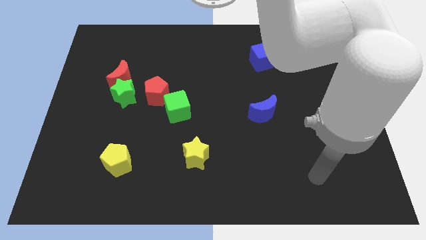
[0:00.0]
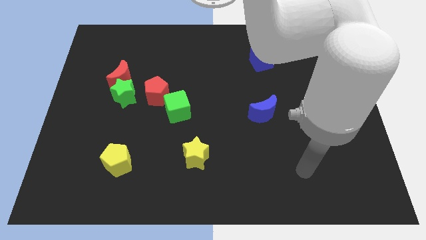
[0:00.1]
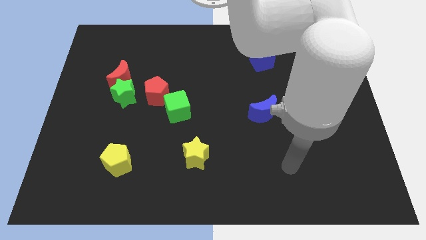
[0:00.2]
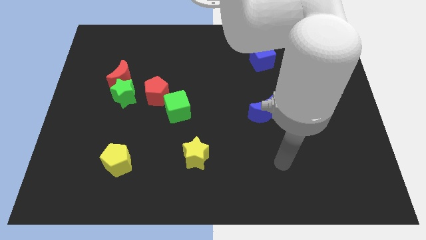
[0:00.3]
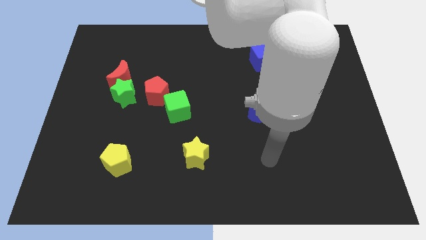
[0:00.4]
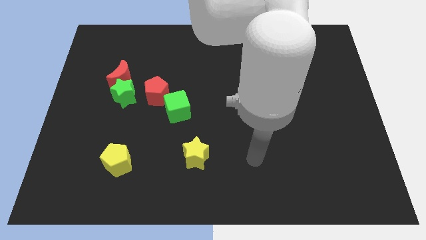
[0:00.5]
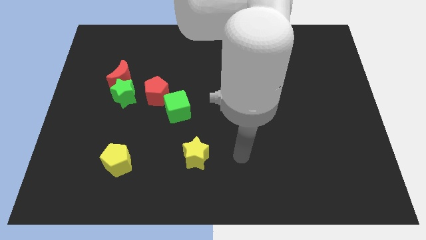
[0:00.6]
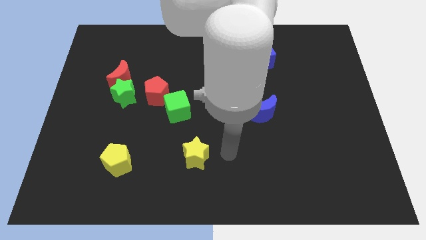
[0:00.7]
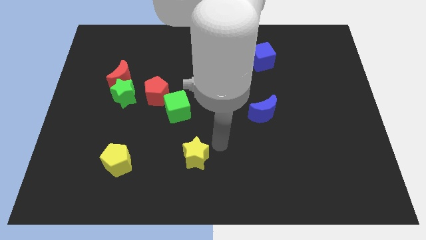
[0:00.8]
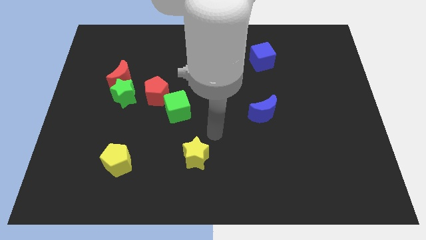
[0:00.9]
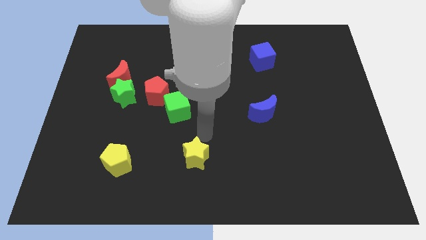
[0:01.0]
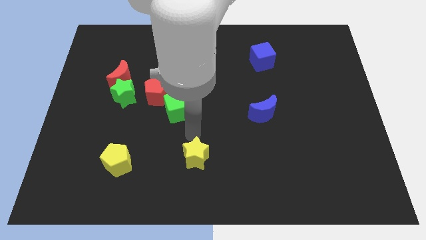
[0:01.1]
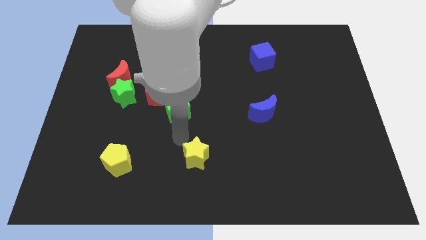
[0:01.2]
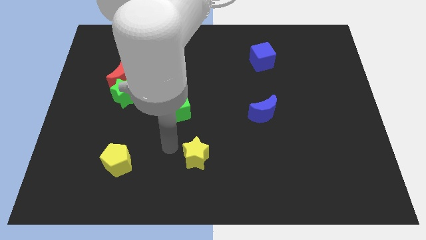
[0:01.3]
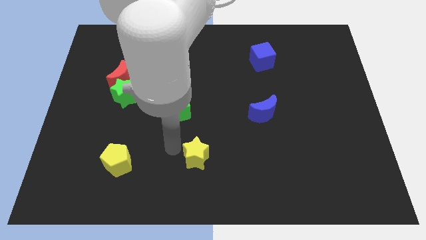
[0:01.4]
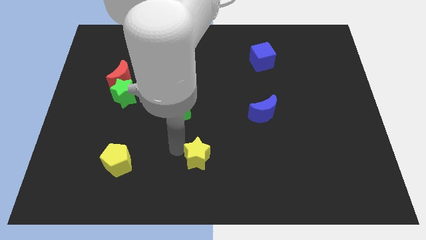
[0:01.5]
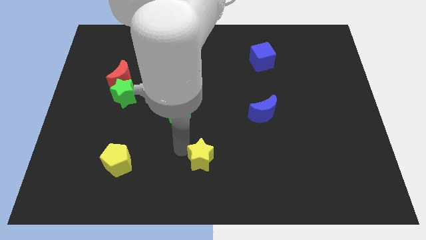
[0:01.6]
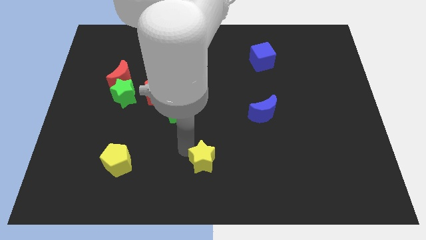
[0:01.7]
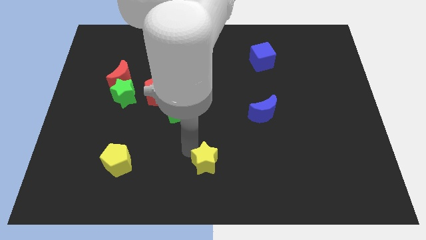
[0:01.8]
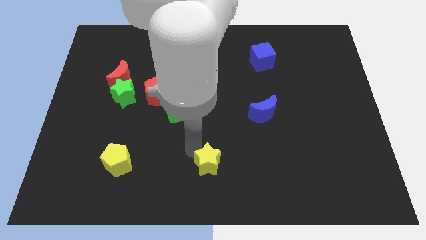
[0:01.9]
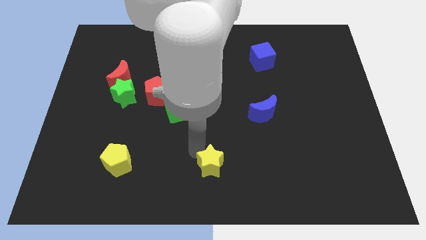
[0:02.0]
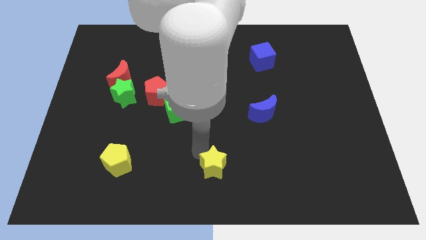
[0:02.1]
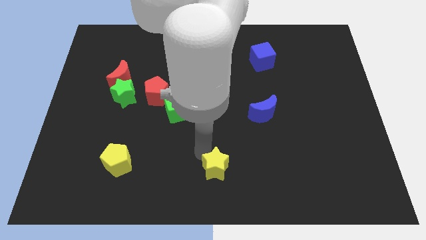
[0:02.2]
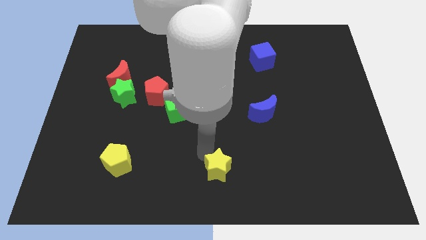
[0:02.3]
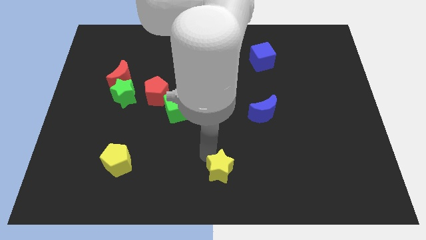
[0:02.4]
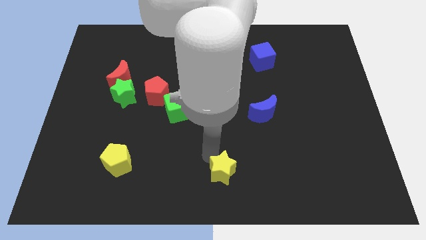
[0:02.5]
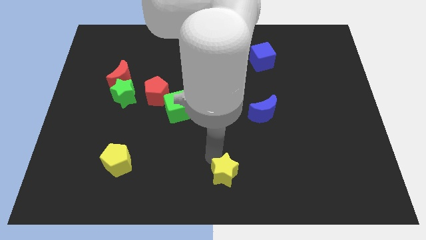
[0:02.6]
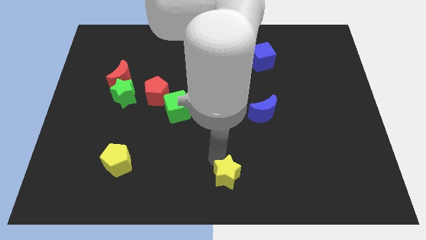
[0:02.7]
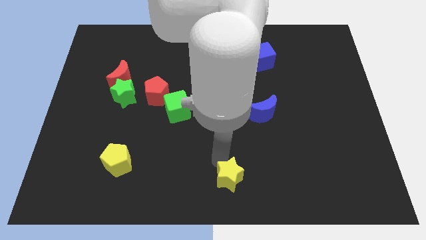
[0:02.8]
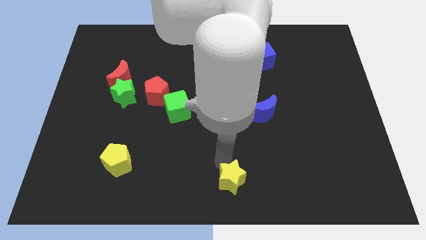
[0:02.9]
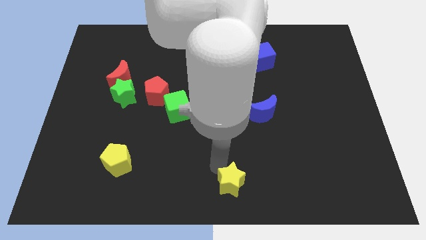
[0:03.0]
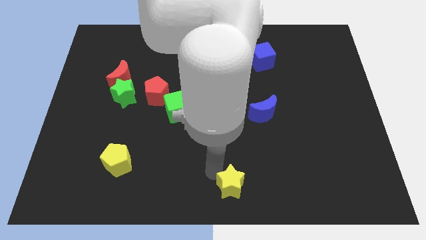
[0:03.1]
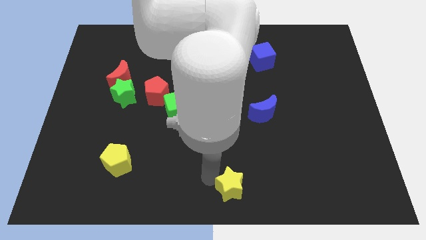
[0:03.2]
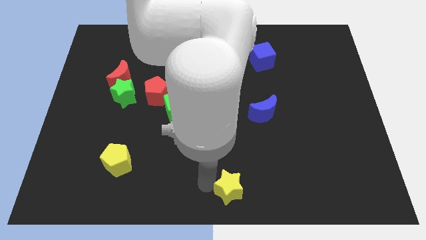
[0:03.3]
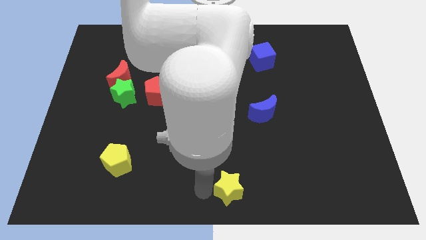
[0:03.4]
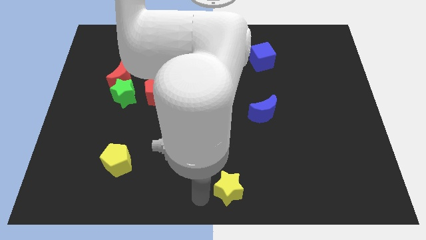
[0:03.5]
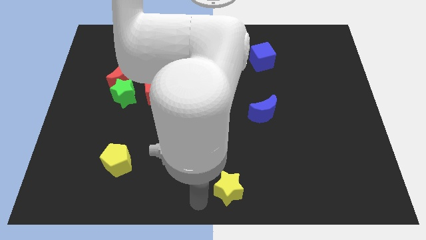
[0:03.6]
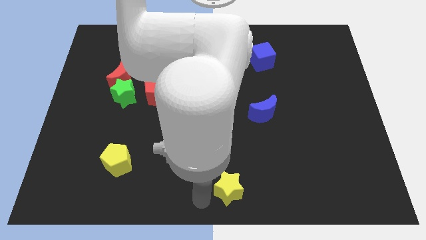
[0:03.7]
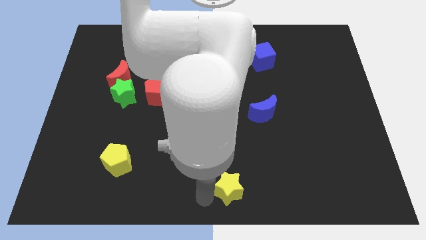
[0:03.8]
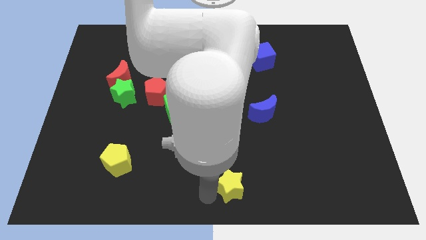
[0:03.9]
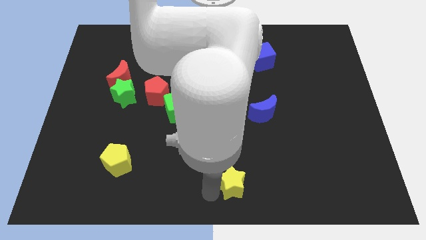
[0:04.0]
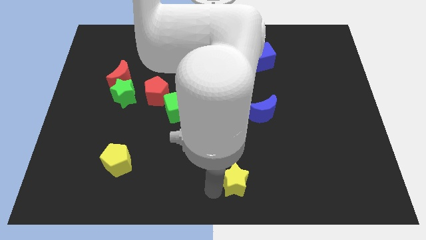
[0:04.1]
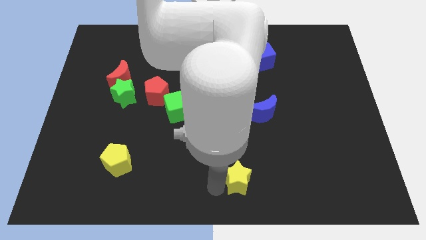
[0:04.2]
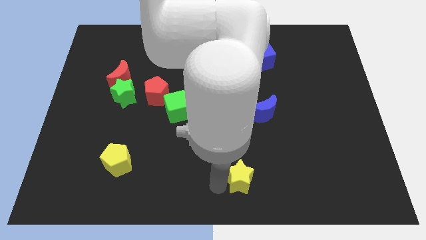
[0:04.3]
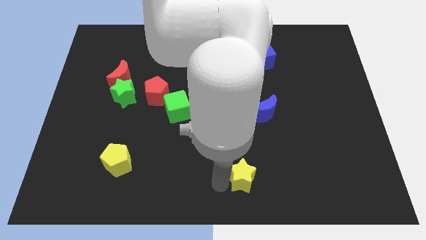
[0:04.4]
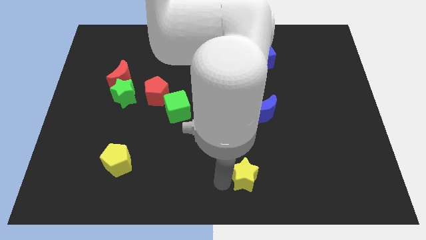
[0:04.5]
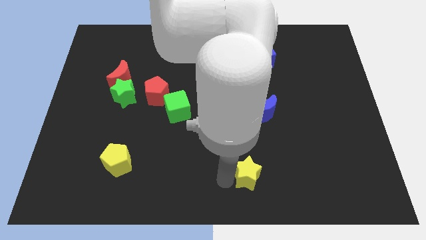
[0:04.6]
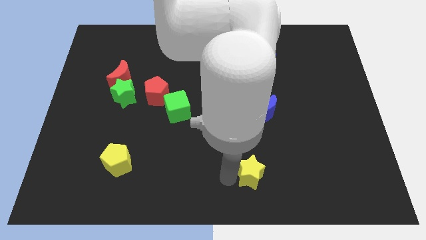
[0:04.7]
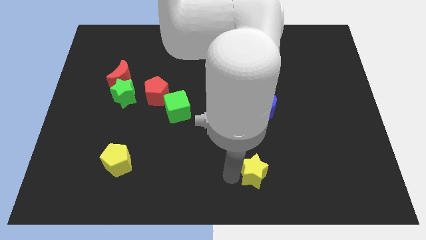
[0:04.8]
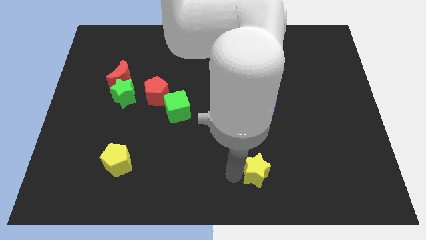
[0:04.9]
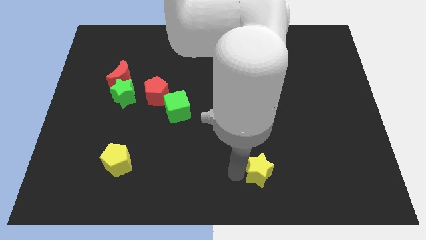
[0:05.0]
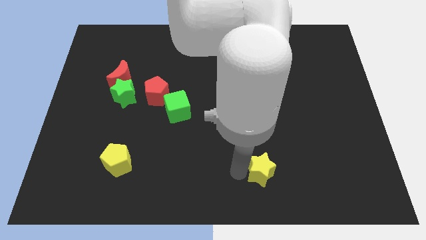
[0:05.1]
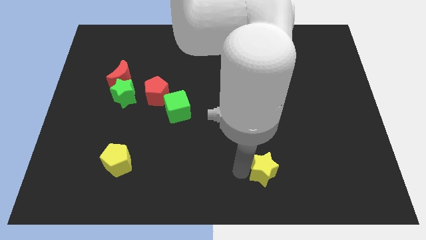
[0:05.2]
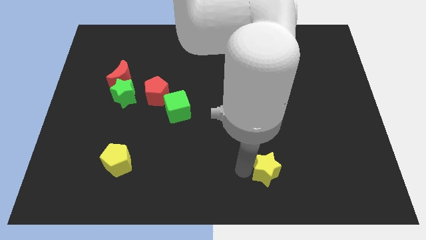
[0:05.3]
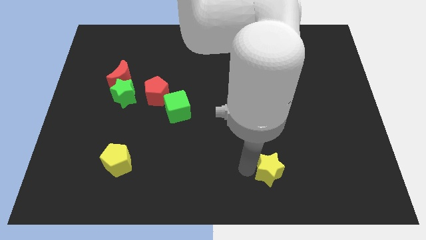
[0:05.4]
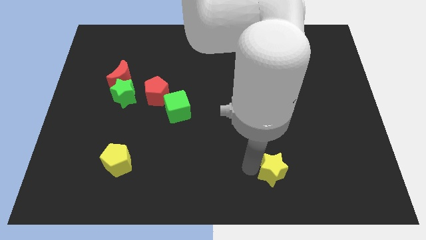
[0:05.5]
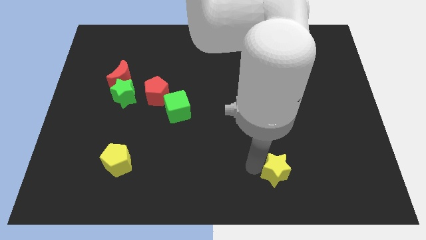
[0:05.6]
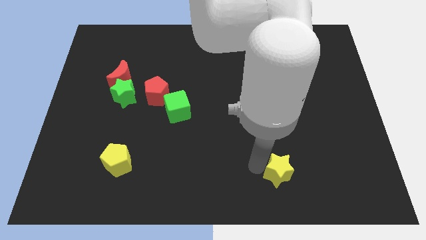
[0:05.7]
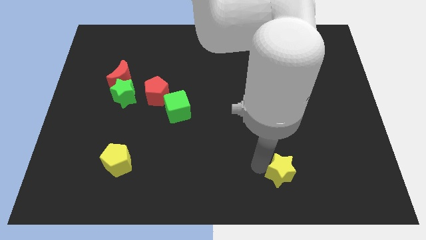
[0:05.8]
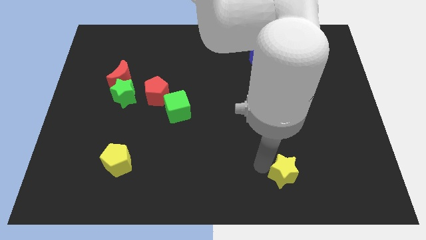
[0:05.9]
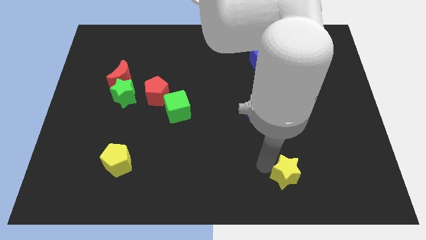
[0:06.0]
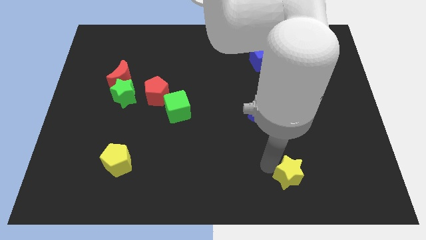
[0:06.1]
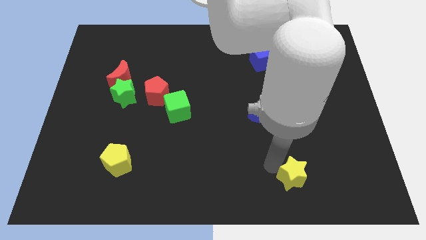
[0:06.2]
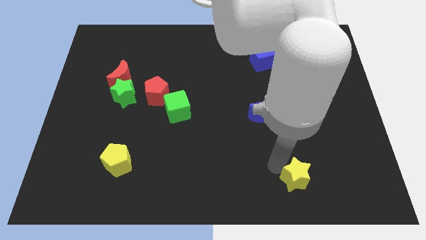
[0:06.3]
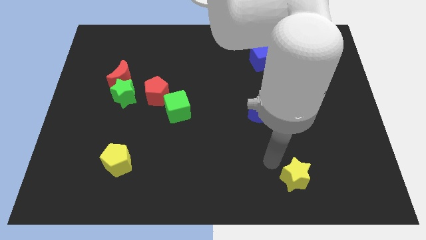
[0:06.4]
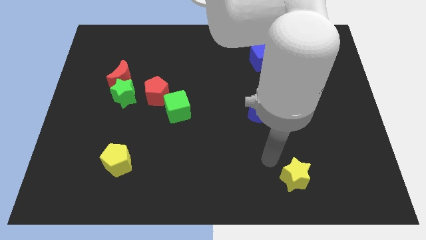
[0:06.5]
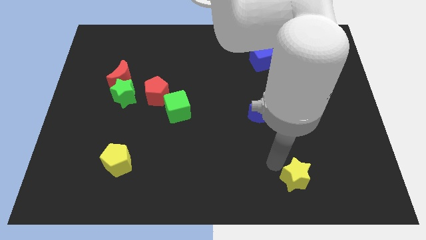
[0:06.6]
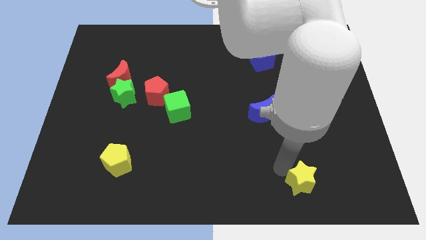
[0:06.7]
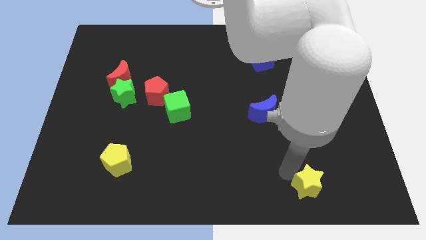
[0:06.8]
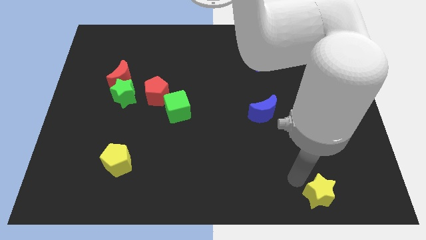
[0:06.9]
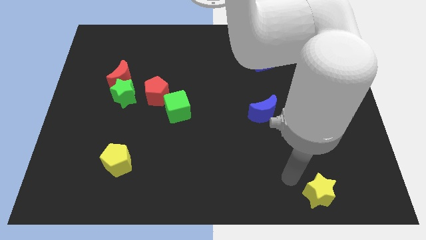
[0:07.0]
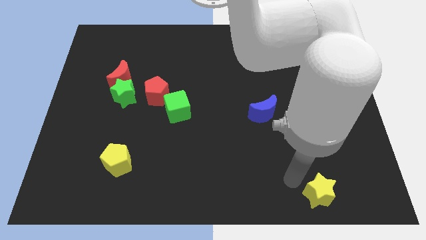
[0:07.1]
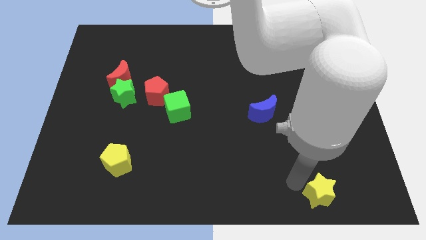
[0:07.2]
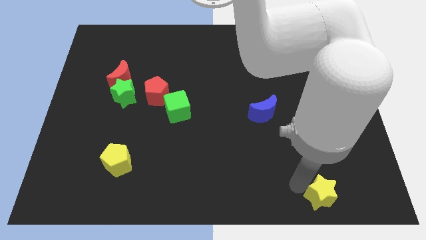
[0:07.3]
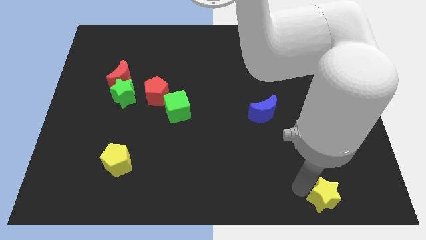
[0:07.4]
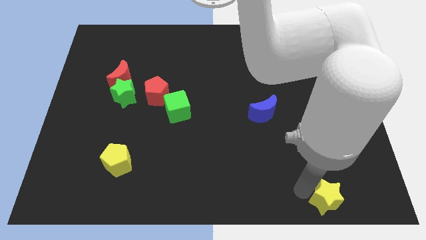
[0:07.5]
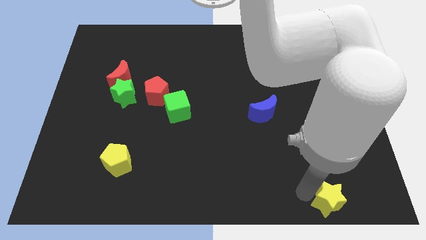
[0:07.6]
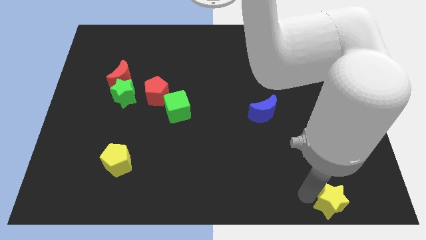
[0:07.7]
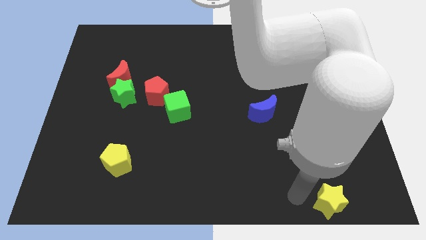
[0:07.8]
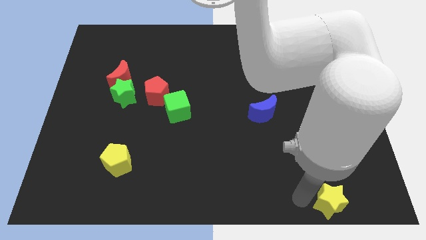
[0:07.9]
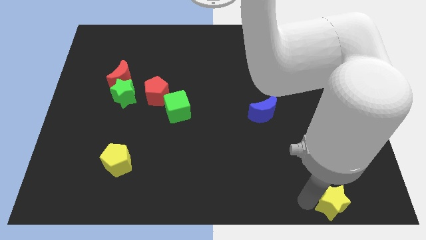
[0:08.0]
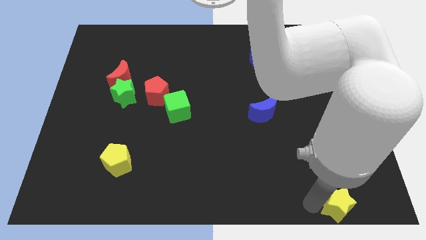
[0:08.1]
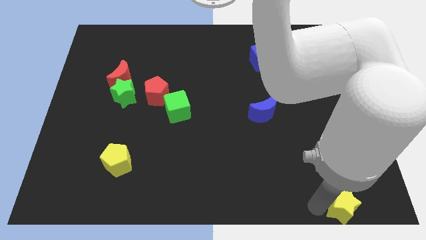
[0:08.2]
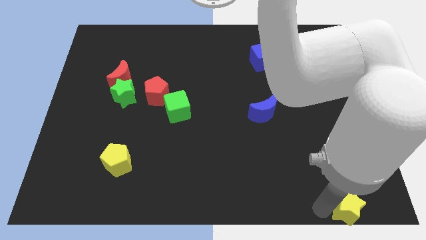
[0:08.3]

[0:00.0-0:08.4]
put the yellow star to the bottom right corner
